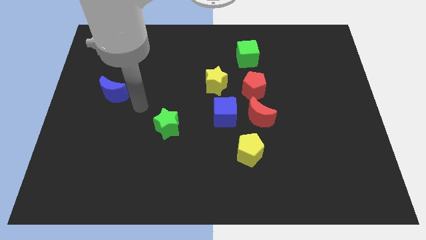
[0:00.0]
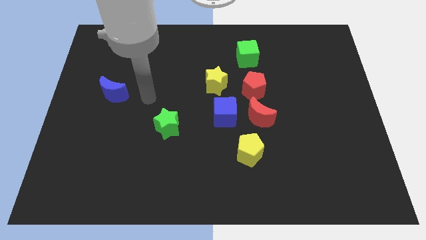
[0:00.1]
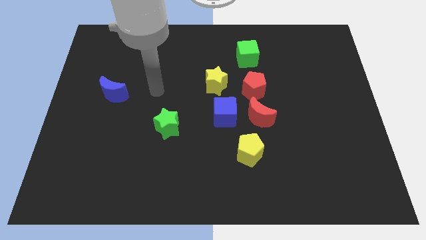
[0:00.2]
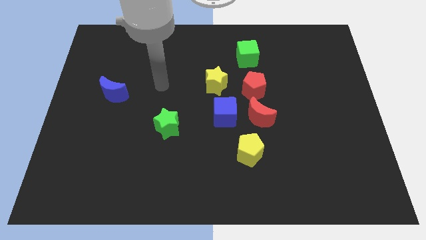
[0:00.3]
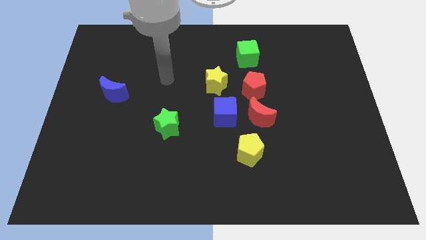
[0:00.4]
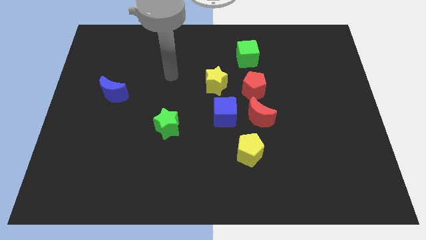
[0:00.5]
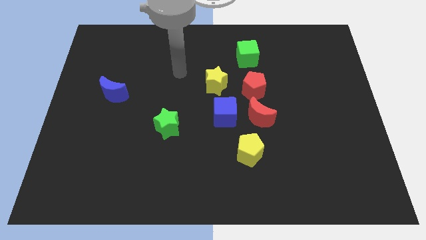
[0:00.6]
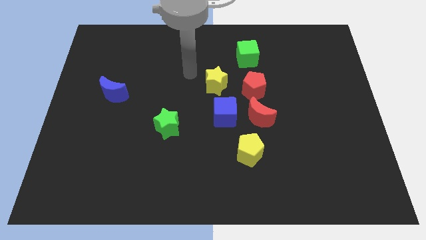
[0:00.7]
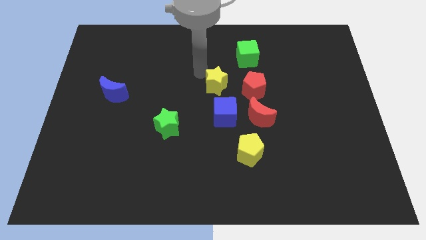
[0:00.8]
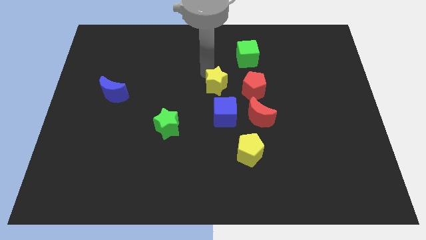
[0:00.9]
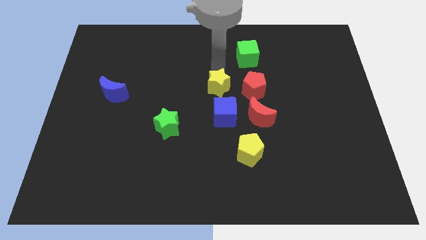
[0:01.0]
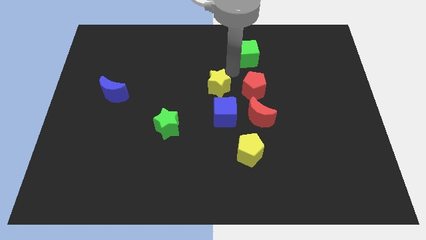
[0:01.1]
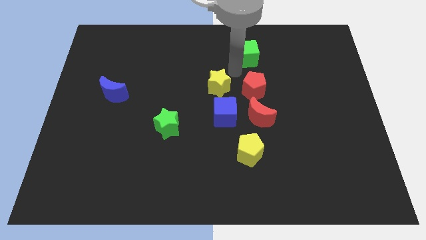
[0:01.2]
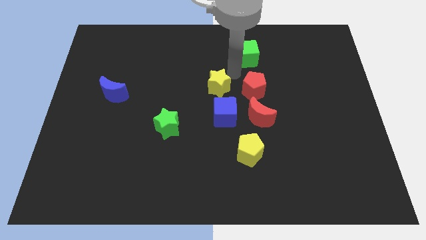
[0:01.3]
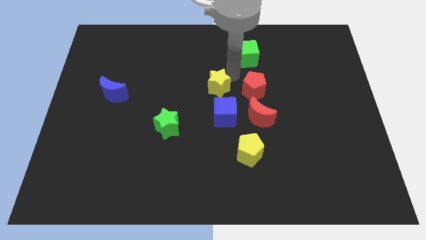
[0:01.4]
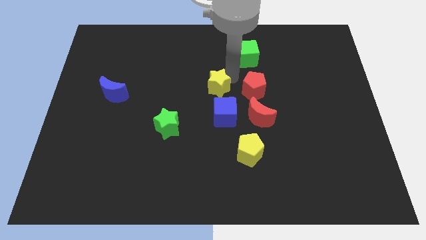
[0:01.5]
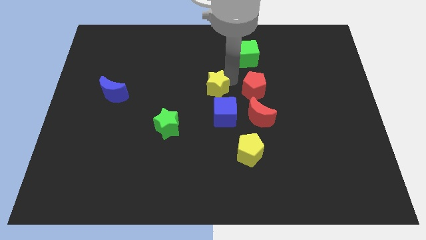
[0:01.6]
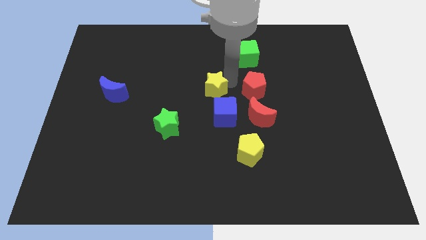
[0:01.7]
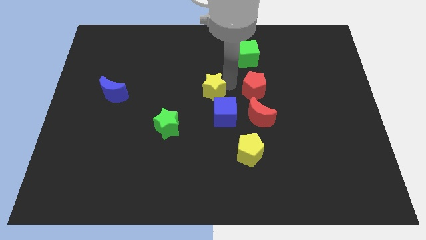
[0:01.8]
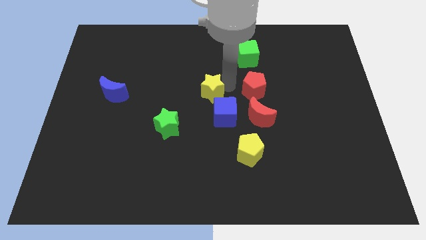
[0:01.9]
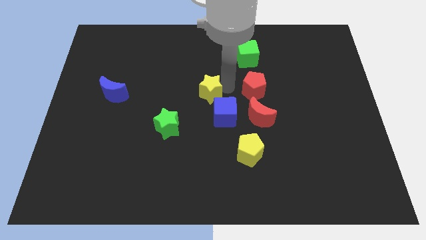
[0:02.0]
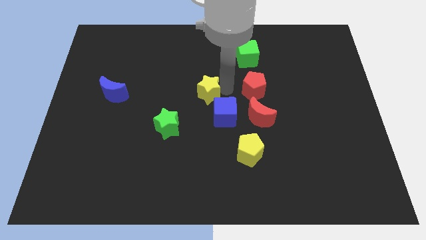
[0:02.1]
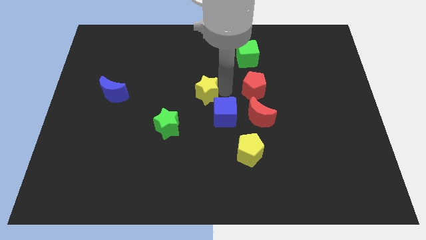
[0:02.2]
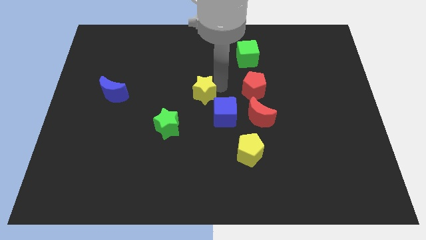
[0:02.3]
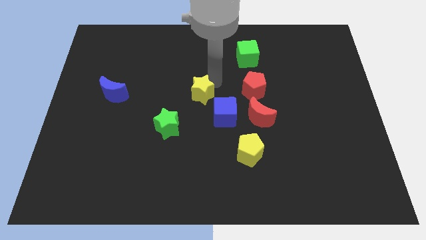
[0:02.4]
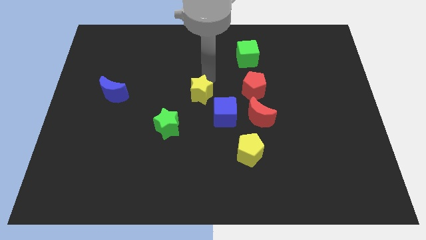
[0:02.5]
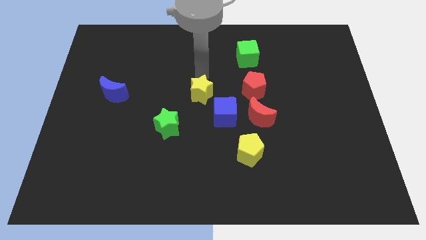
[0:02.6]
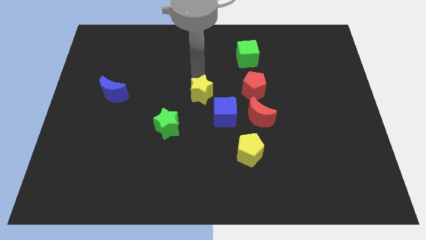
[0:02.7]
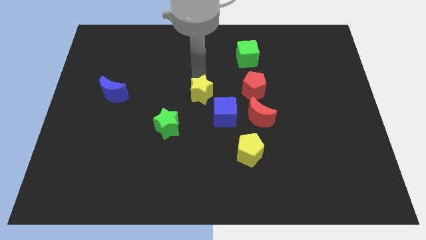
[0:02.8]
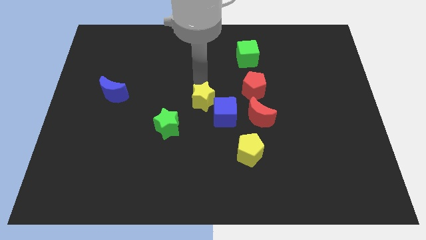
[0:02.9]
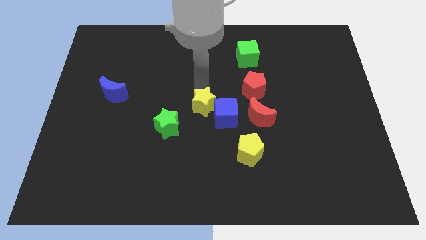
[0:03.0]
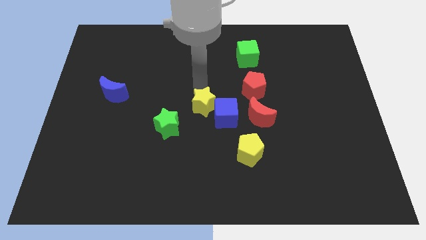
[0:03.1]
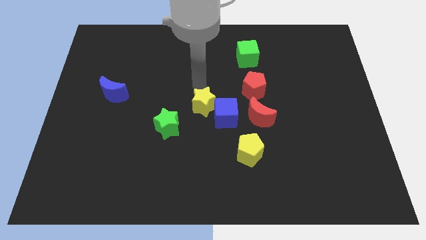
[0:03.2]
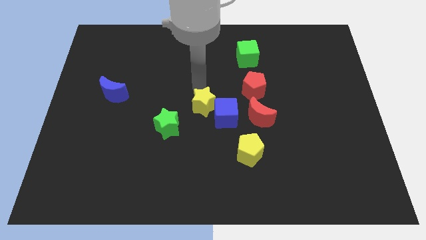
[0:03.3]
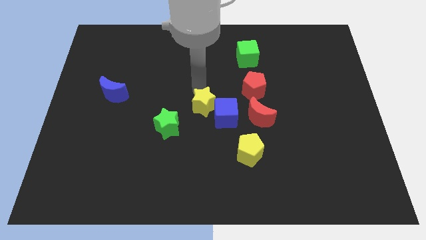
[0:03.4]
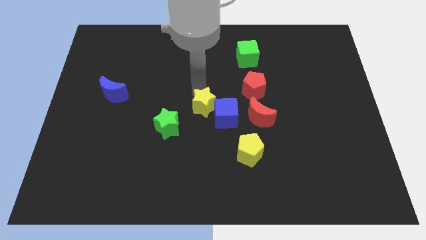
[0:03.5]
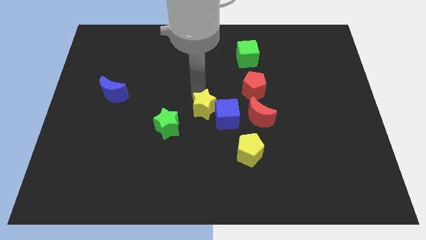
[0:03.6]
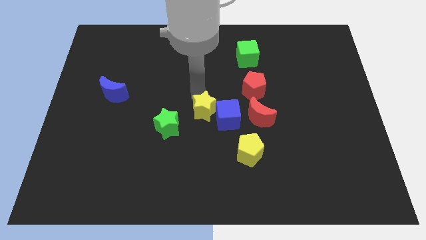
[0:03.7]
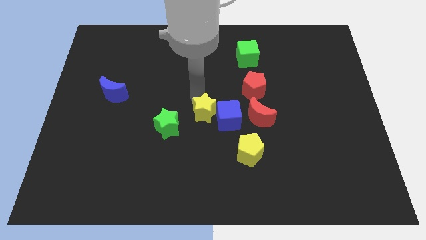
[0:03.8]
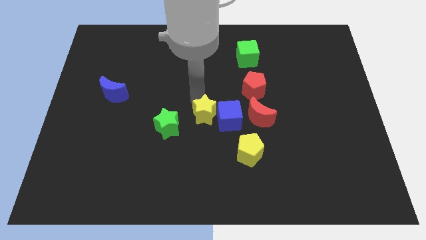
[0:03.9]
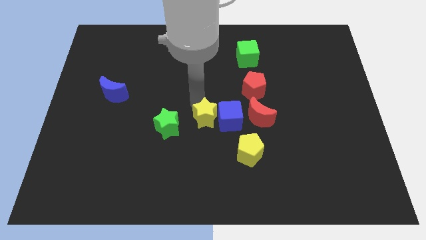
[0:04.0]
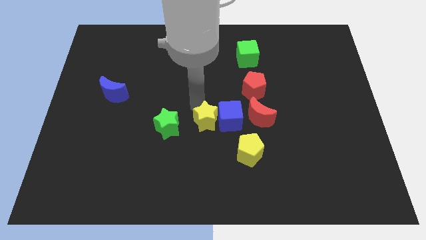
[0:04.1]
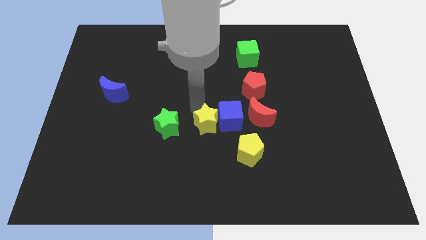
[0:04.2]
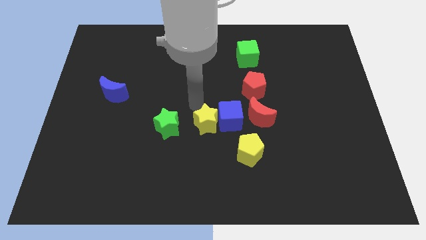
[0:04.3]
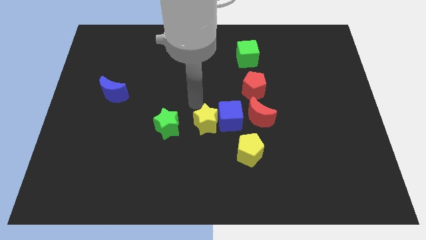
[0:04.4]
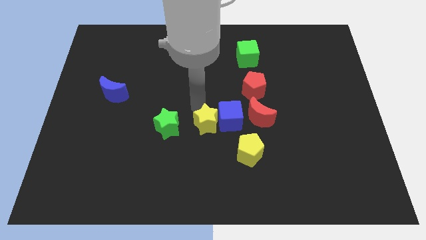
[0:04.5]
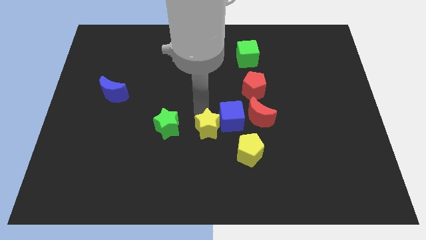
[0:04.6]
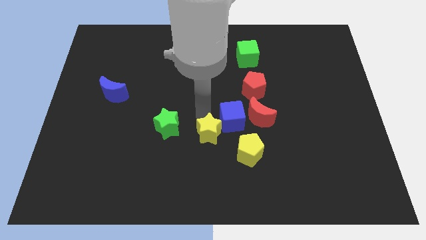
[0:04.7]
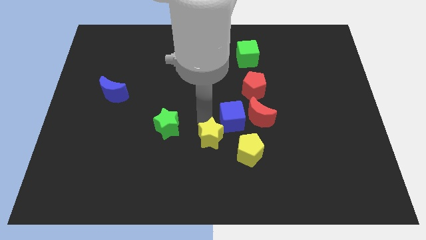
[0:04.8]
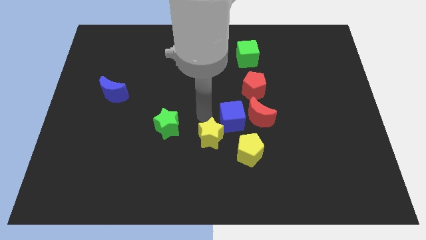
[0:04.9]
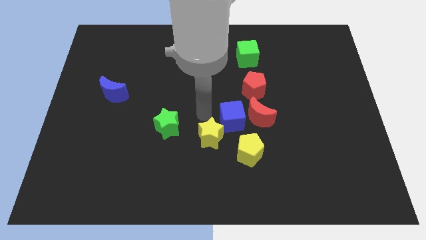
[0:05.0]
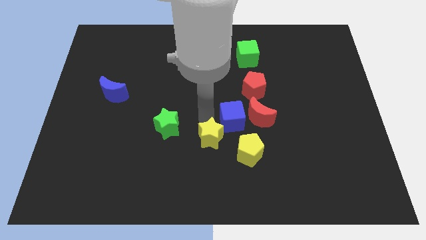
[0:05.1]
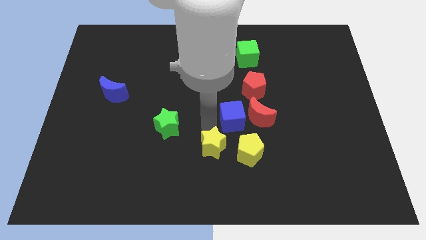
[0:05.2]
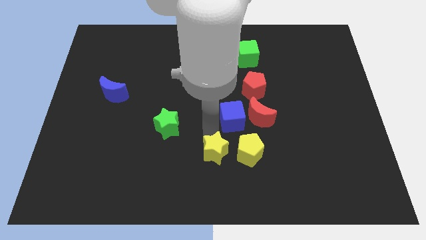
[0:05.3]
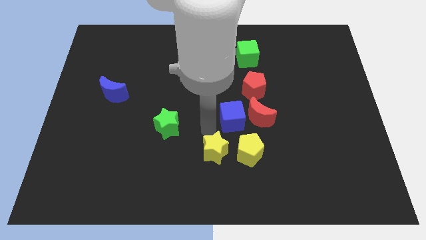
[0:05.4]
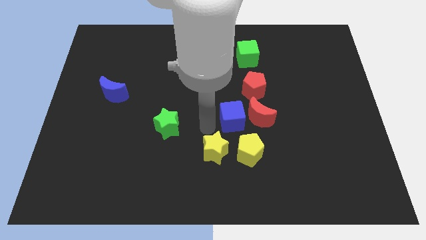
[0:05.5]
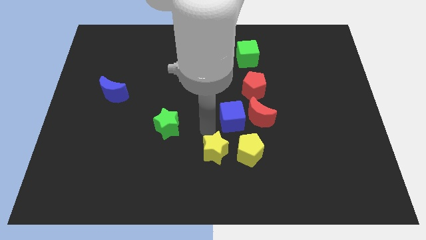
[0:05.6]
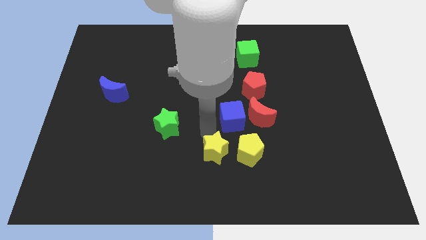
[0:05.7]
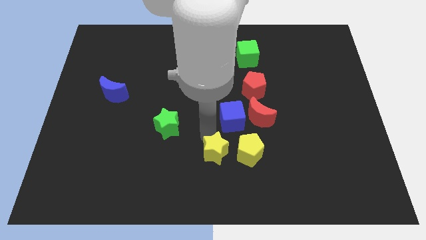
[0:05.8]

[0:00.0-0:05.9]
move the yellow star to the bottom left of the yellow pentagon
